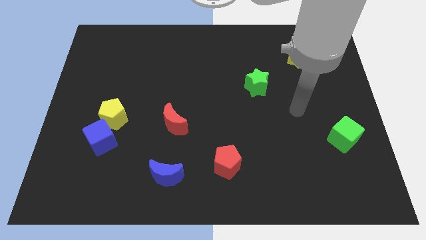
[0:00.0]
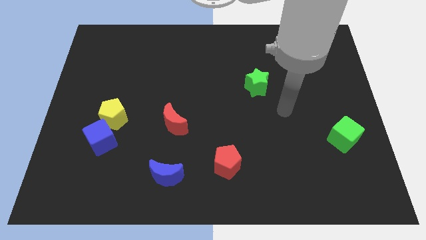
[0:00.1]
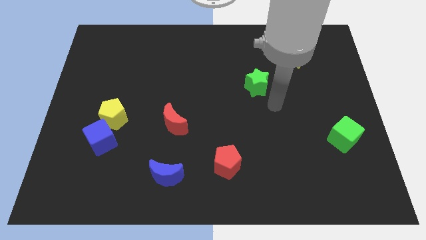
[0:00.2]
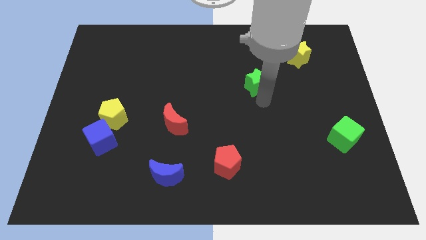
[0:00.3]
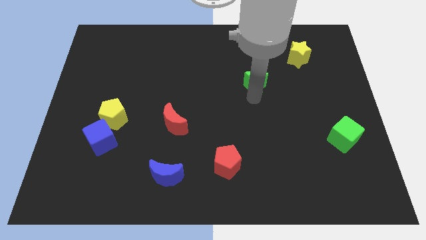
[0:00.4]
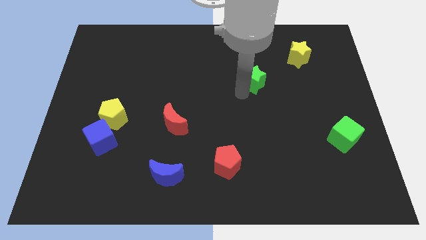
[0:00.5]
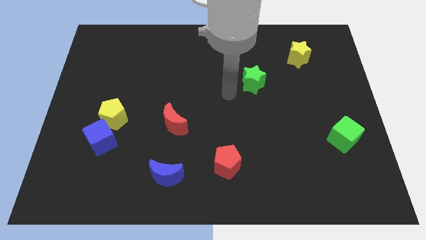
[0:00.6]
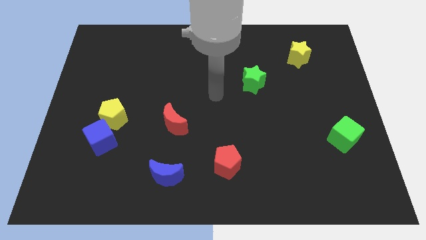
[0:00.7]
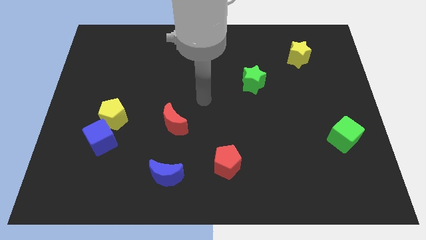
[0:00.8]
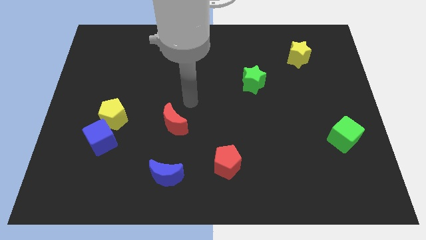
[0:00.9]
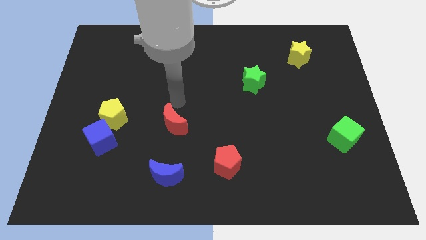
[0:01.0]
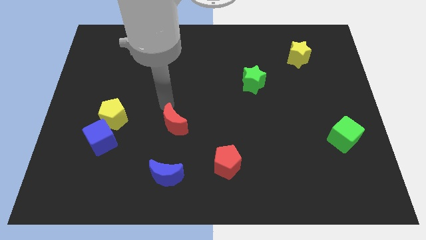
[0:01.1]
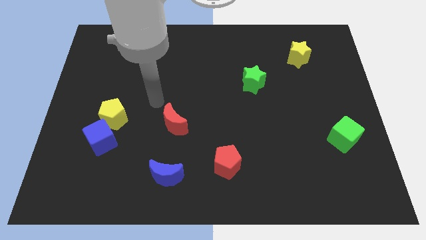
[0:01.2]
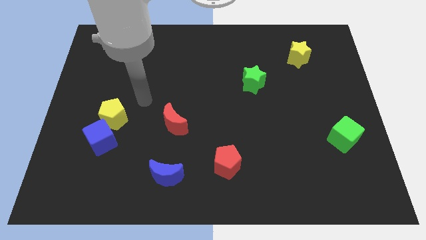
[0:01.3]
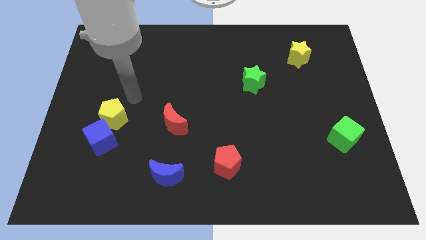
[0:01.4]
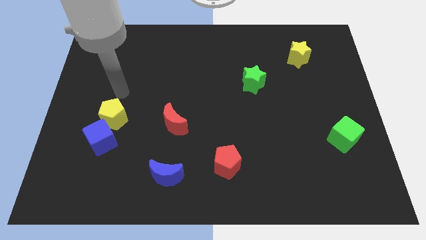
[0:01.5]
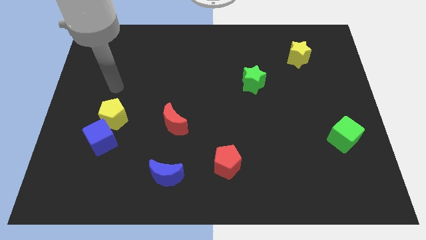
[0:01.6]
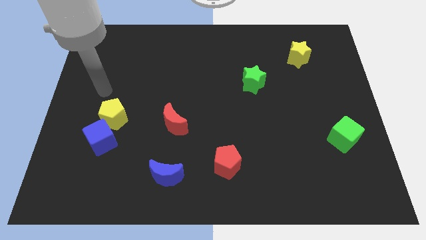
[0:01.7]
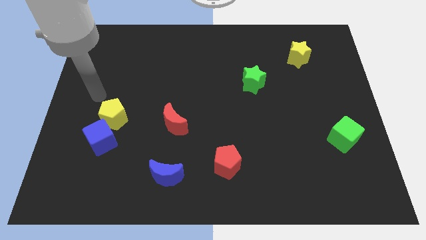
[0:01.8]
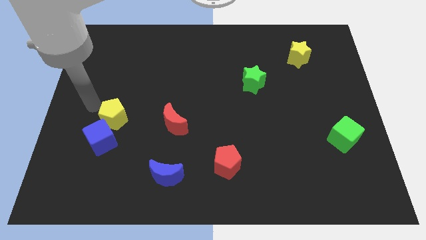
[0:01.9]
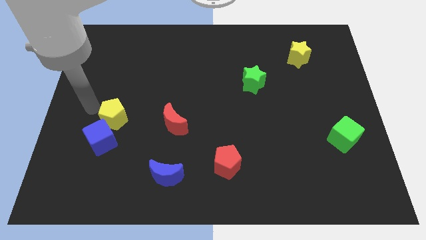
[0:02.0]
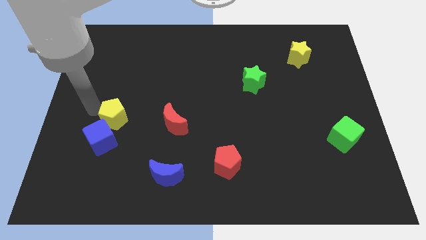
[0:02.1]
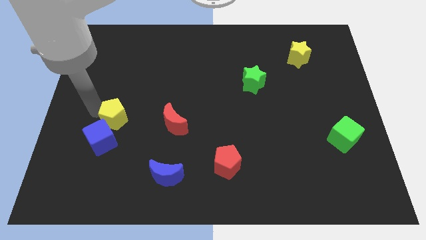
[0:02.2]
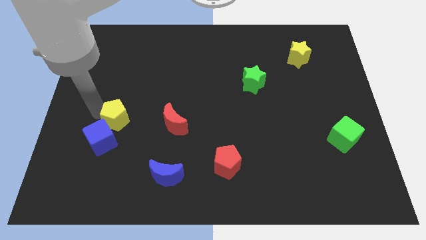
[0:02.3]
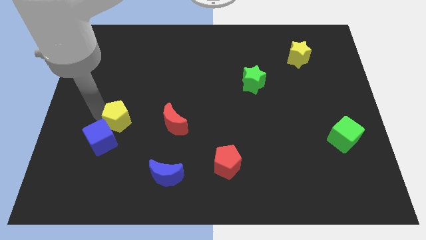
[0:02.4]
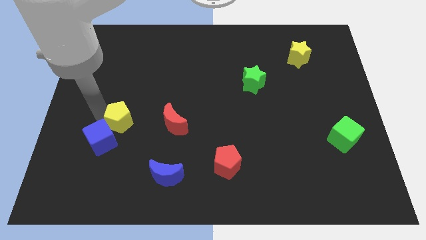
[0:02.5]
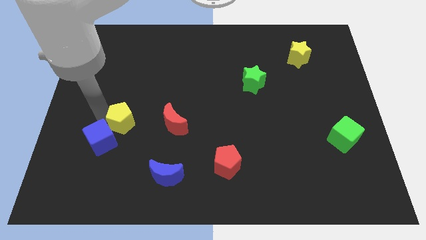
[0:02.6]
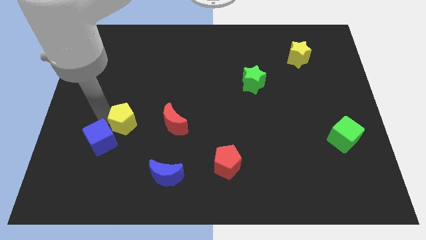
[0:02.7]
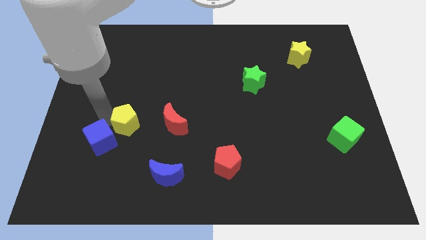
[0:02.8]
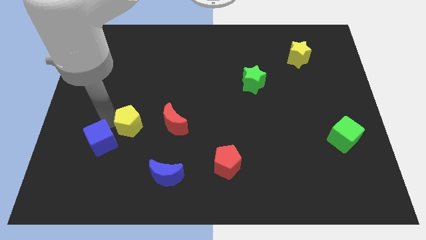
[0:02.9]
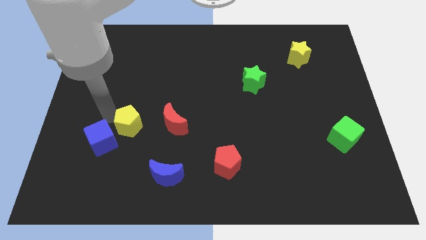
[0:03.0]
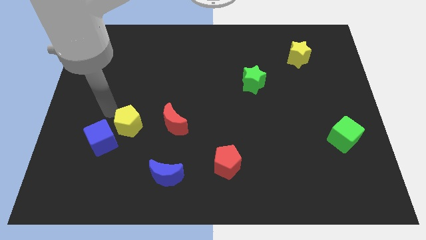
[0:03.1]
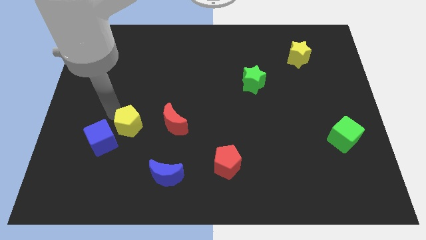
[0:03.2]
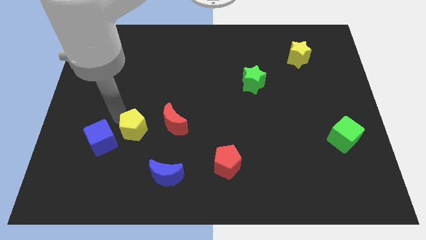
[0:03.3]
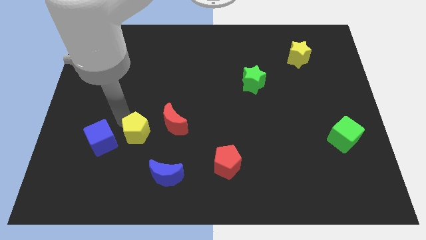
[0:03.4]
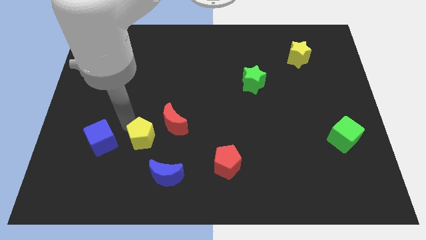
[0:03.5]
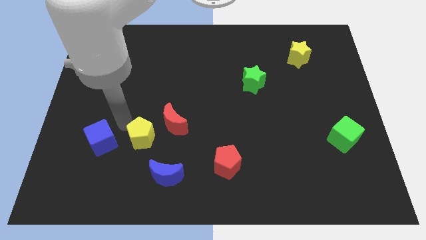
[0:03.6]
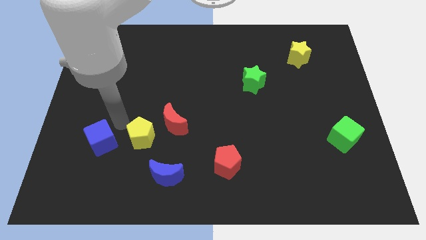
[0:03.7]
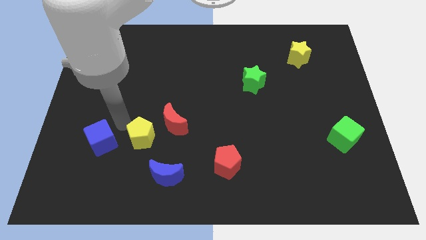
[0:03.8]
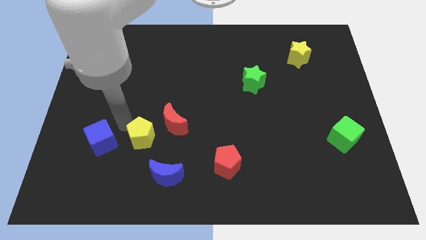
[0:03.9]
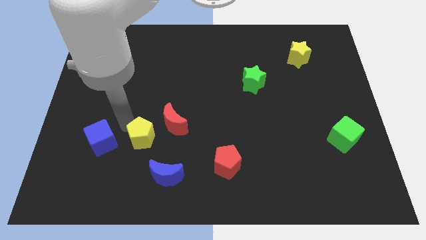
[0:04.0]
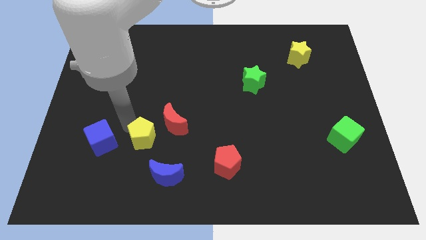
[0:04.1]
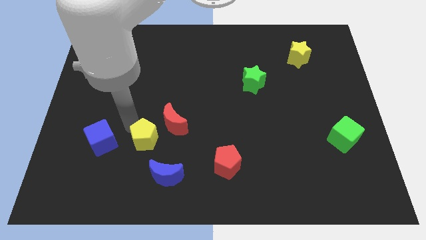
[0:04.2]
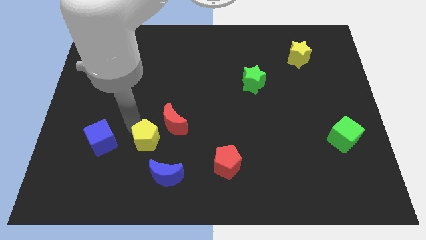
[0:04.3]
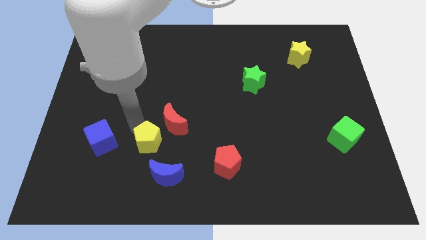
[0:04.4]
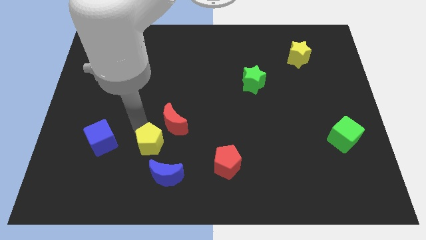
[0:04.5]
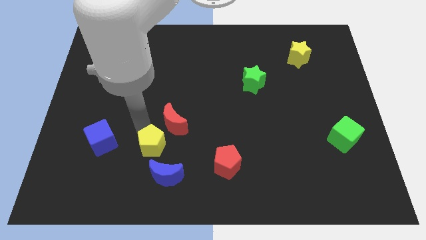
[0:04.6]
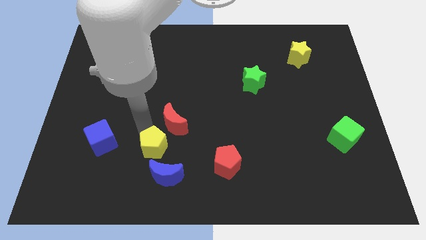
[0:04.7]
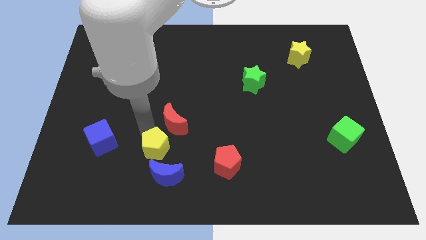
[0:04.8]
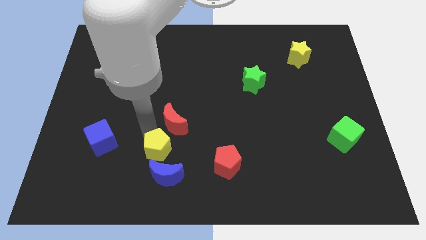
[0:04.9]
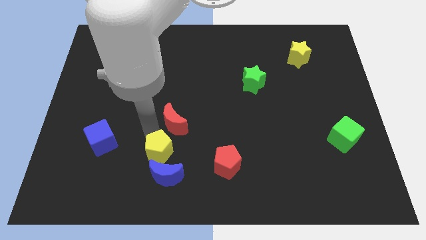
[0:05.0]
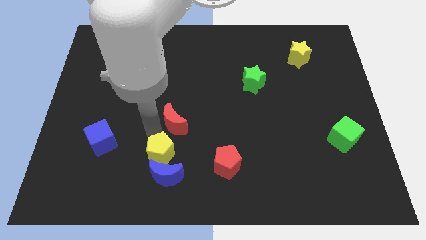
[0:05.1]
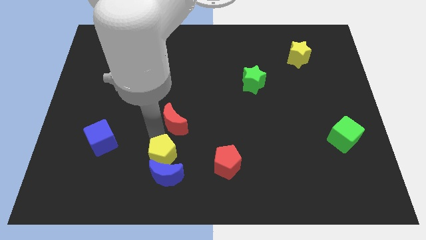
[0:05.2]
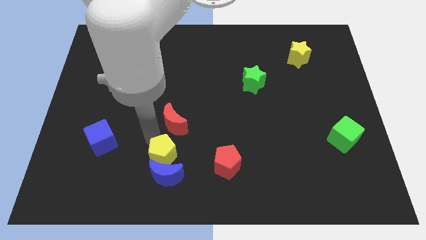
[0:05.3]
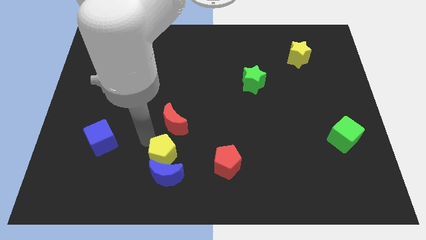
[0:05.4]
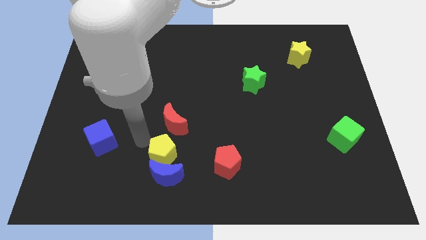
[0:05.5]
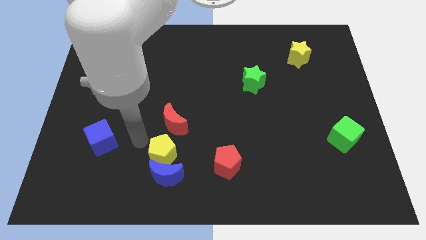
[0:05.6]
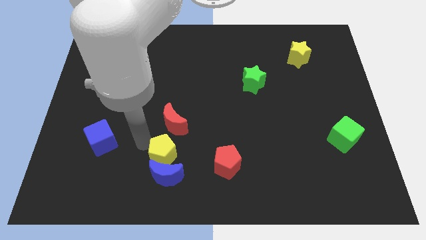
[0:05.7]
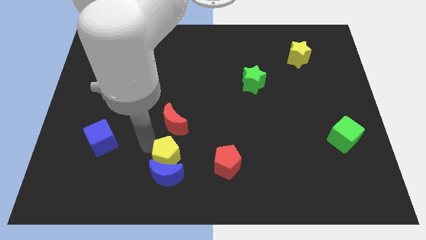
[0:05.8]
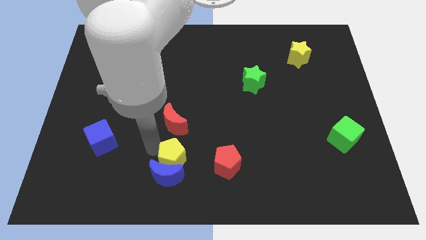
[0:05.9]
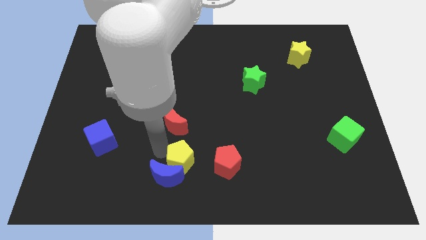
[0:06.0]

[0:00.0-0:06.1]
put the yellow pentagon to the bottom side
